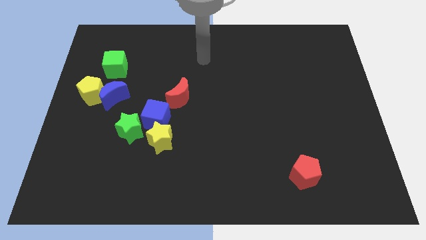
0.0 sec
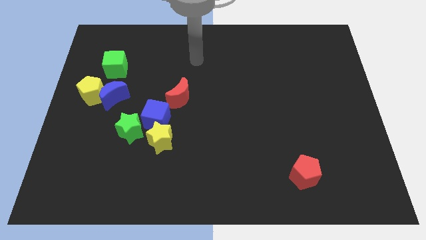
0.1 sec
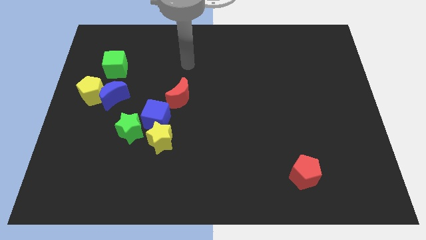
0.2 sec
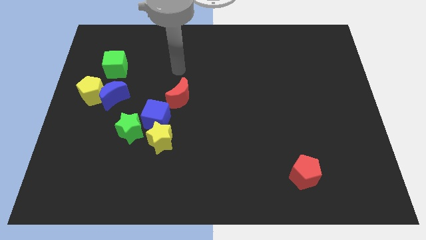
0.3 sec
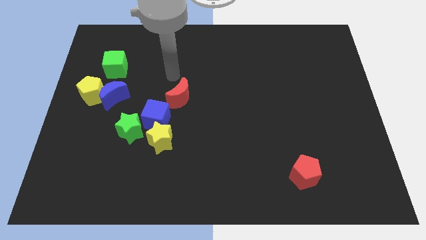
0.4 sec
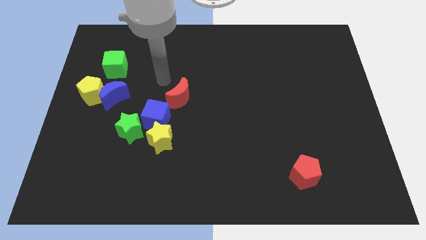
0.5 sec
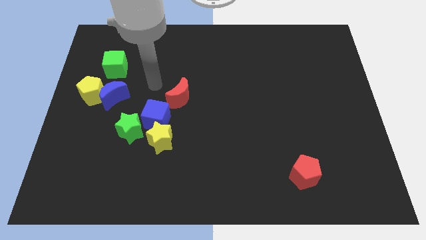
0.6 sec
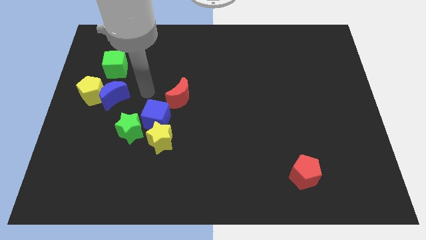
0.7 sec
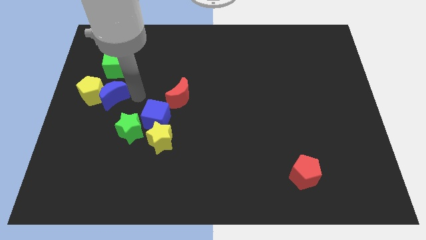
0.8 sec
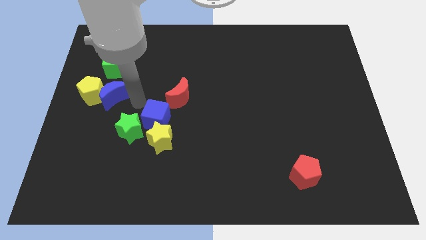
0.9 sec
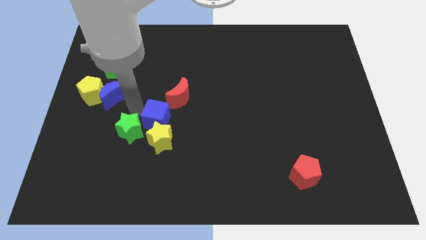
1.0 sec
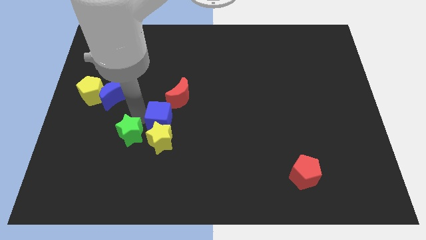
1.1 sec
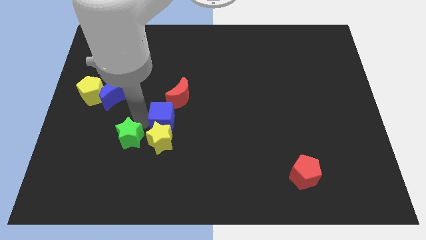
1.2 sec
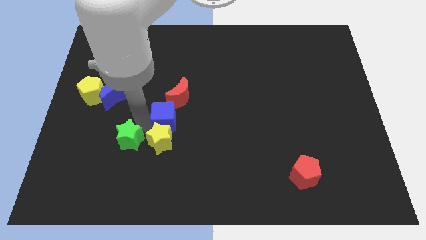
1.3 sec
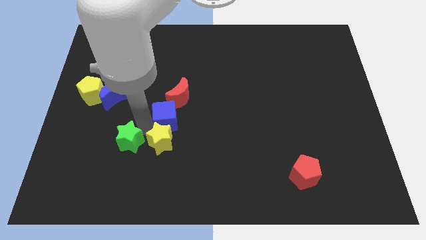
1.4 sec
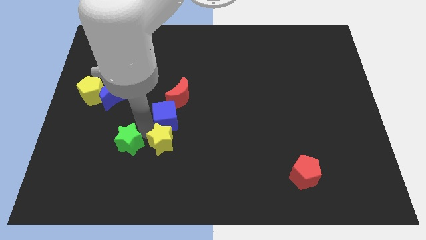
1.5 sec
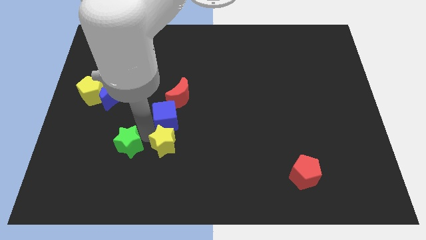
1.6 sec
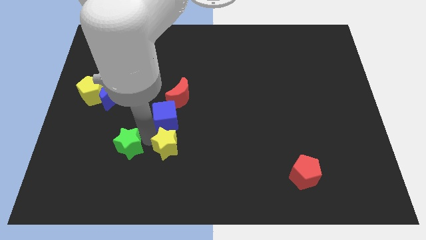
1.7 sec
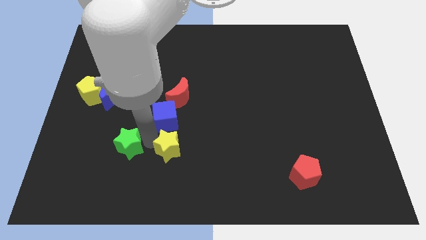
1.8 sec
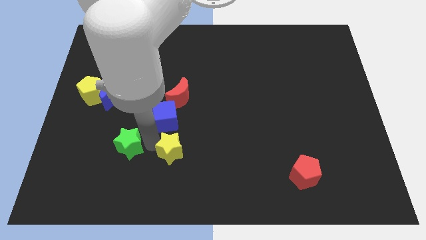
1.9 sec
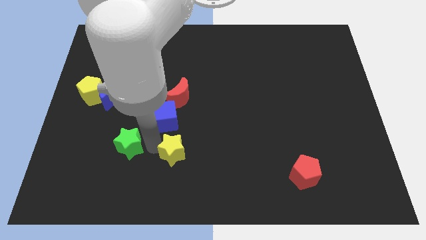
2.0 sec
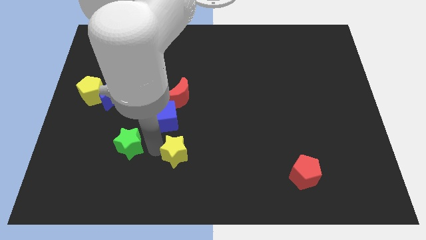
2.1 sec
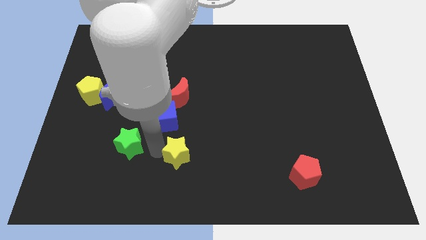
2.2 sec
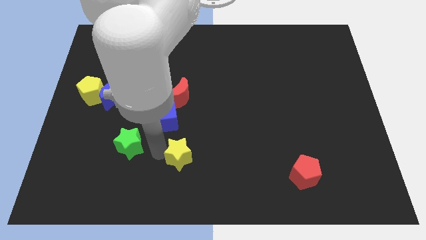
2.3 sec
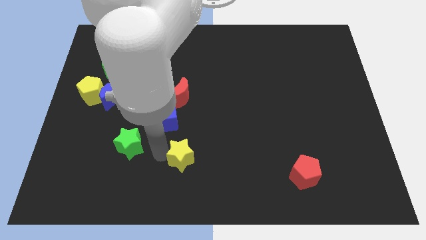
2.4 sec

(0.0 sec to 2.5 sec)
pull the yellow star apart from the blue cube and green star

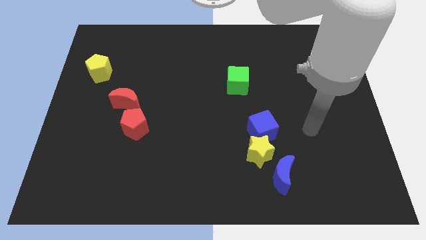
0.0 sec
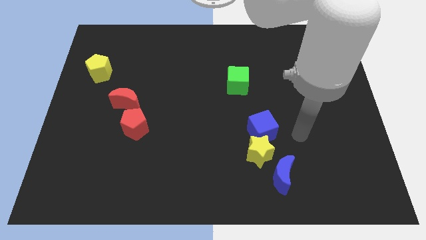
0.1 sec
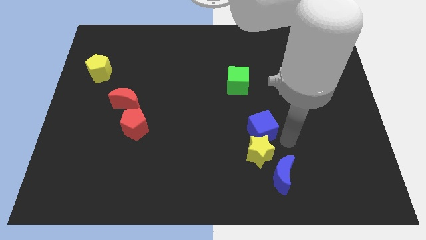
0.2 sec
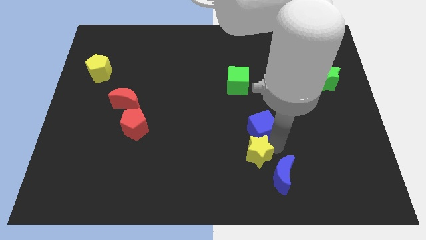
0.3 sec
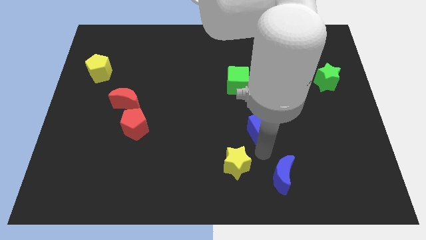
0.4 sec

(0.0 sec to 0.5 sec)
pull the blue cube apart from the yellow star

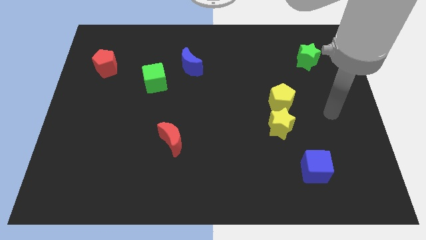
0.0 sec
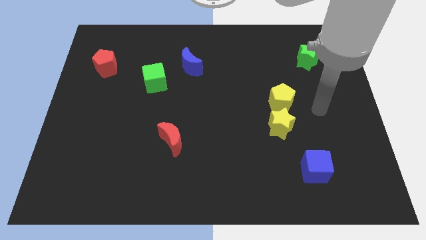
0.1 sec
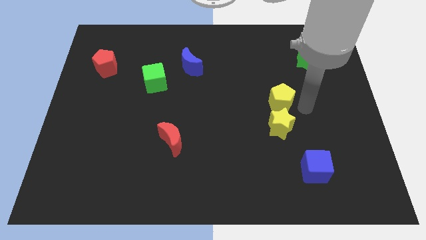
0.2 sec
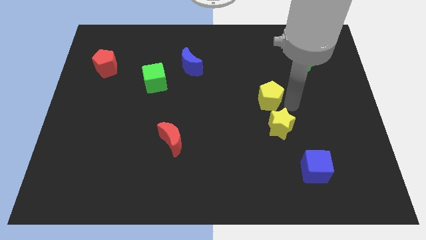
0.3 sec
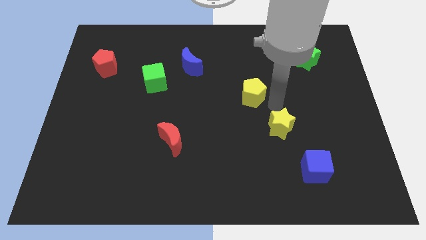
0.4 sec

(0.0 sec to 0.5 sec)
pull the yellow star apart from the yellow pentagon

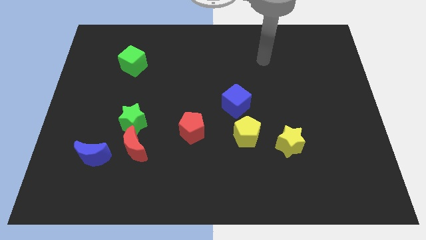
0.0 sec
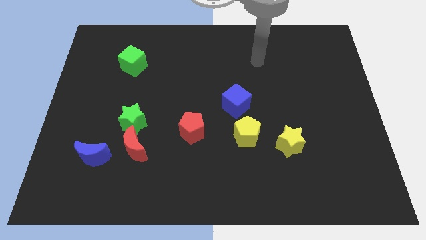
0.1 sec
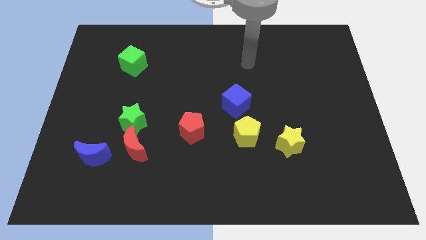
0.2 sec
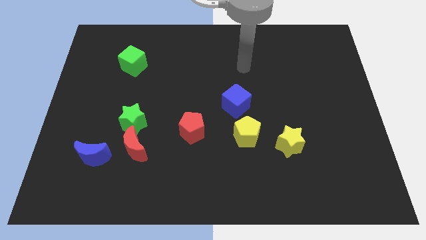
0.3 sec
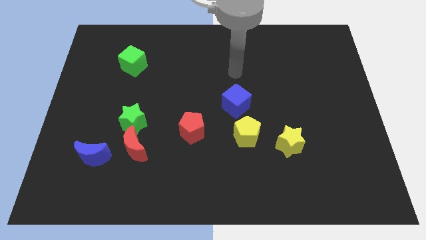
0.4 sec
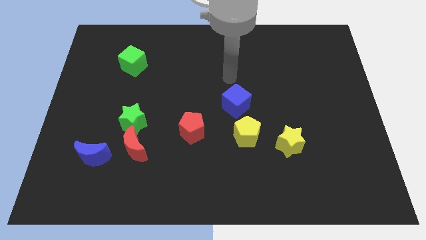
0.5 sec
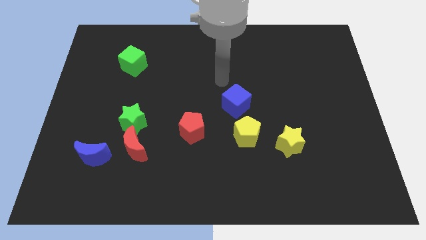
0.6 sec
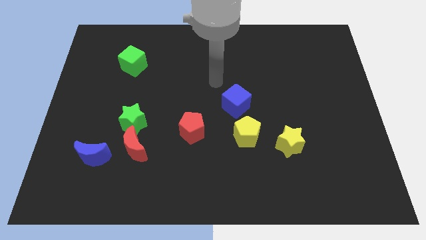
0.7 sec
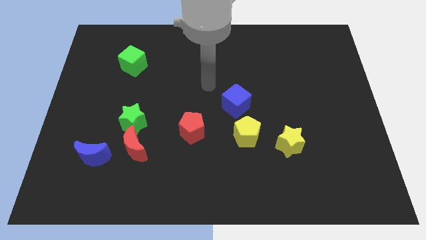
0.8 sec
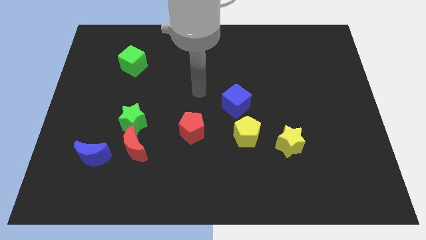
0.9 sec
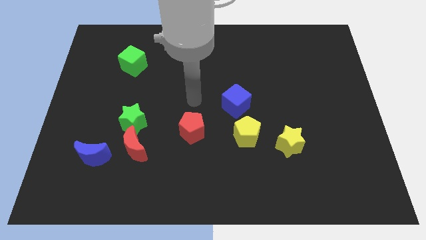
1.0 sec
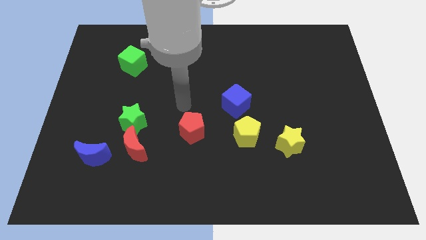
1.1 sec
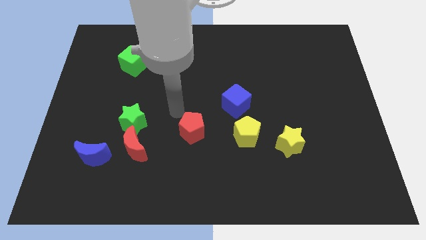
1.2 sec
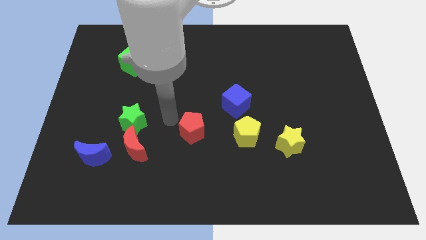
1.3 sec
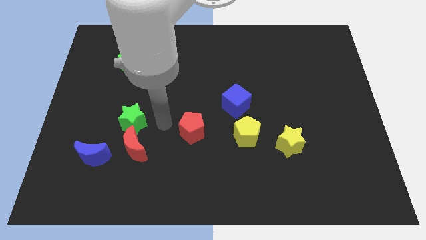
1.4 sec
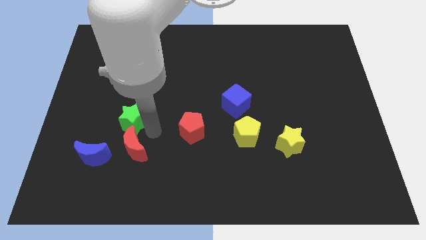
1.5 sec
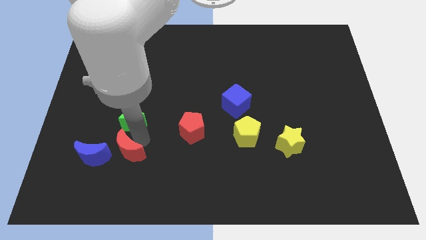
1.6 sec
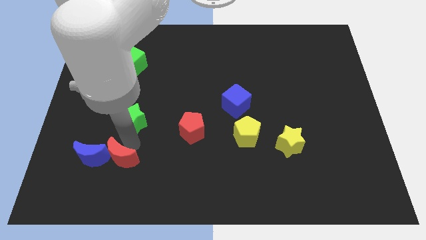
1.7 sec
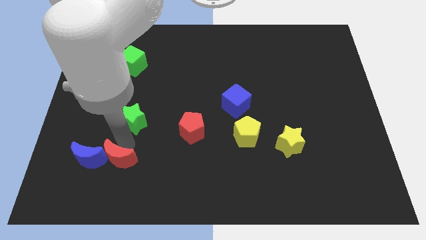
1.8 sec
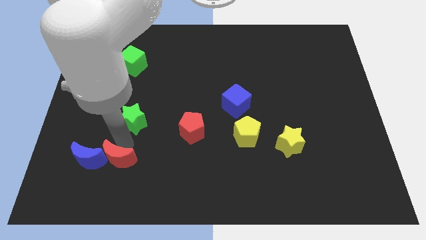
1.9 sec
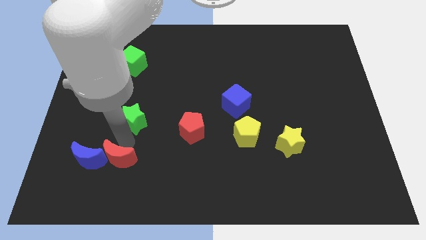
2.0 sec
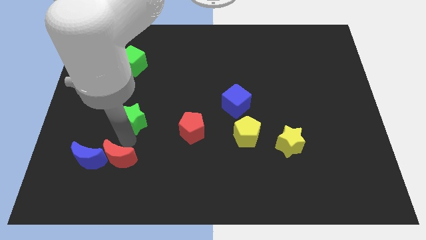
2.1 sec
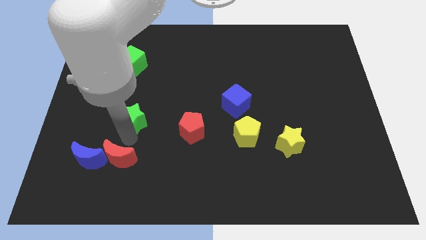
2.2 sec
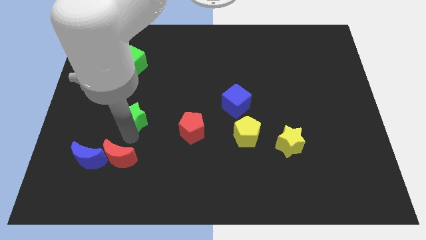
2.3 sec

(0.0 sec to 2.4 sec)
move the green star away from the red moon

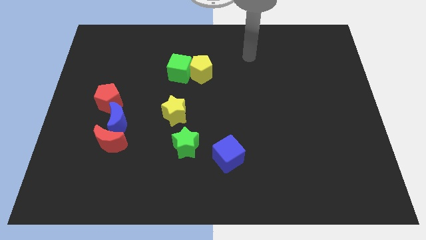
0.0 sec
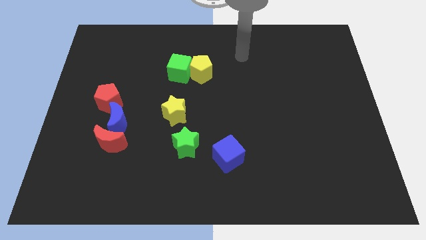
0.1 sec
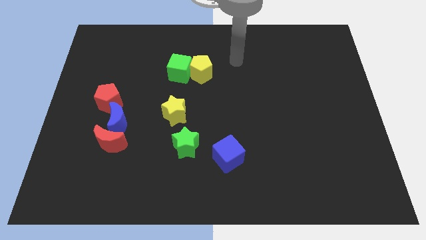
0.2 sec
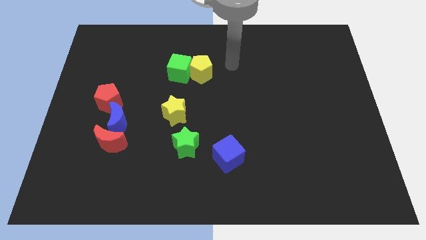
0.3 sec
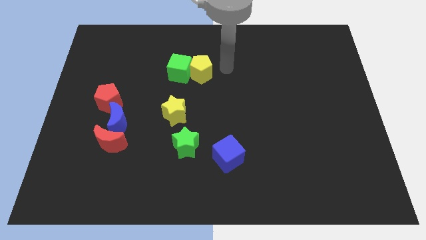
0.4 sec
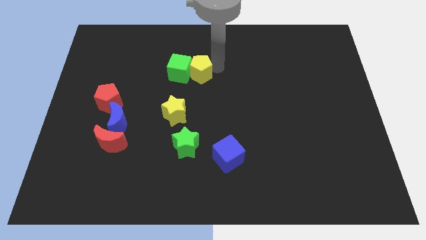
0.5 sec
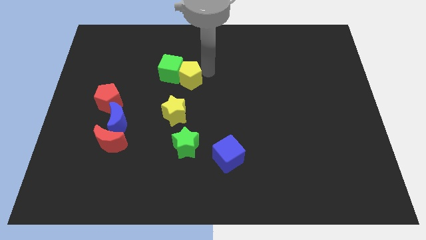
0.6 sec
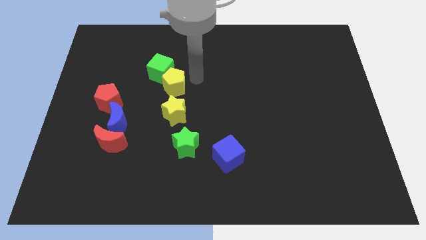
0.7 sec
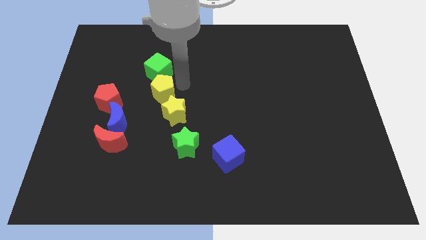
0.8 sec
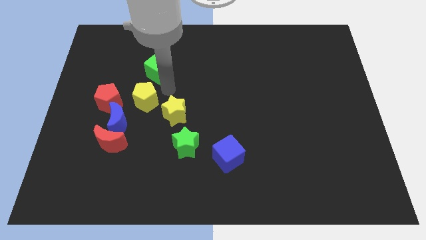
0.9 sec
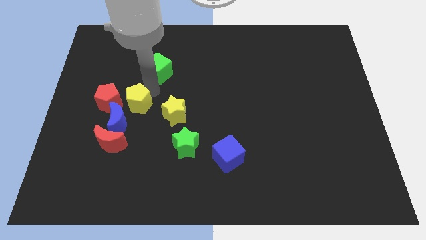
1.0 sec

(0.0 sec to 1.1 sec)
separate the green cube from the yellow pentagon

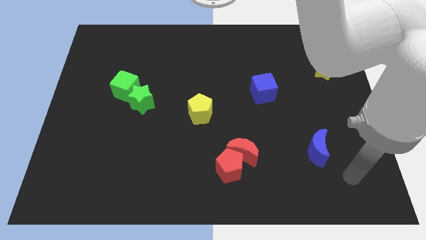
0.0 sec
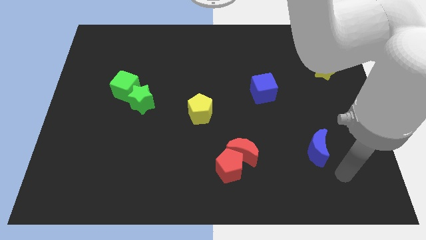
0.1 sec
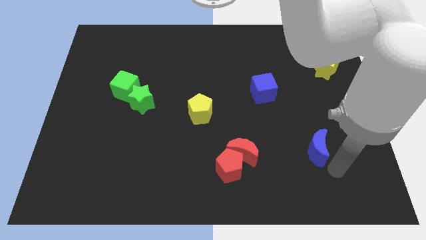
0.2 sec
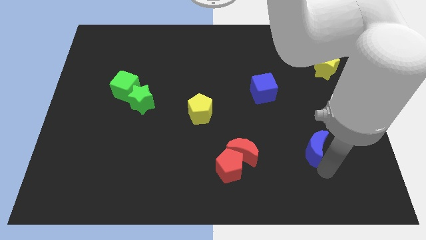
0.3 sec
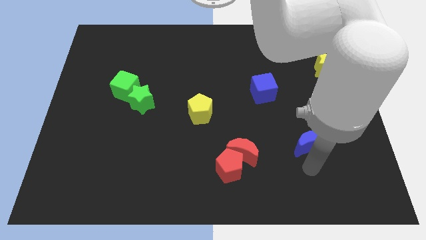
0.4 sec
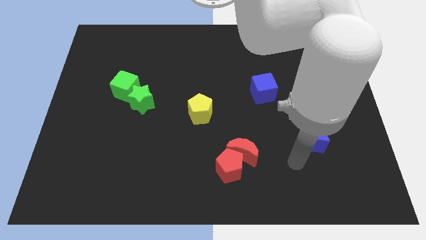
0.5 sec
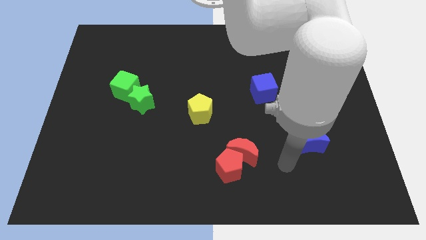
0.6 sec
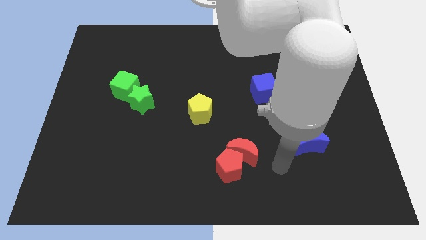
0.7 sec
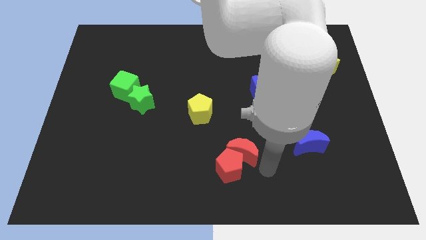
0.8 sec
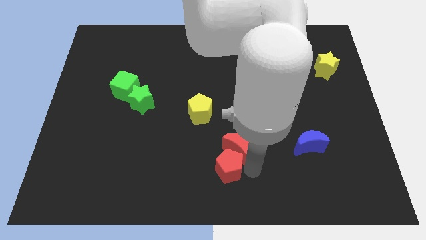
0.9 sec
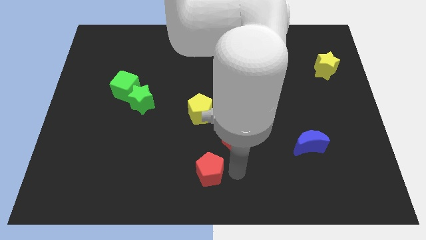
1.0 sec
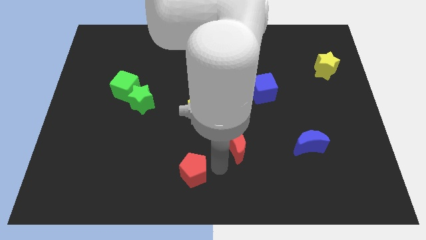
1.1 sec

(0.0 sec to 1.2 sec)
separate the red moon from the red pentagon

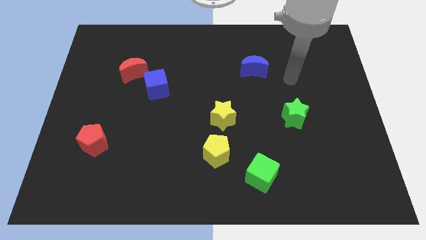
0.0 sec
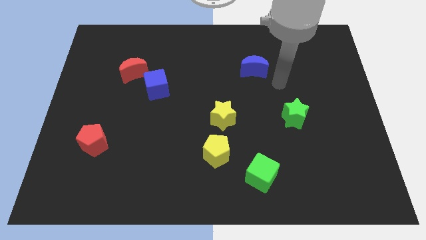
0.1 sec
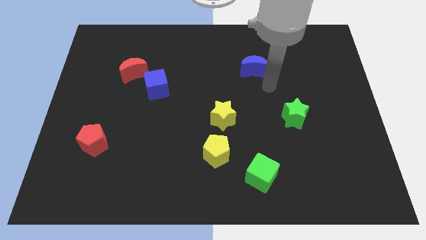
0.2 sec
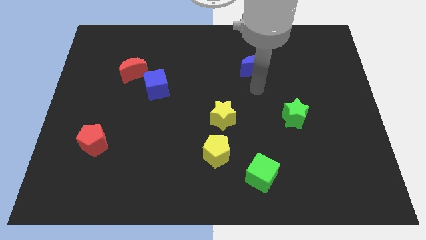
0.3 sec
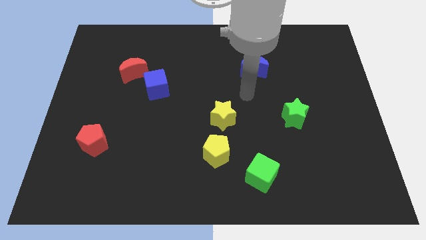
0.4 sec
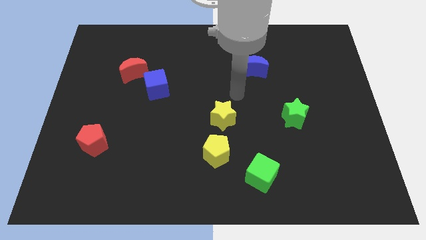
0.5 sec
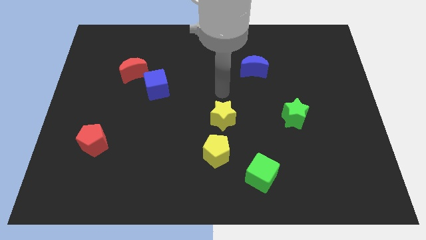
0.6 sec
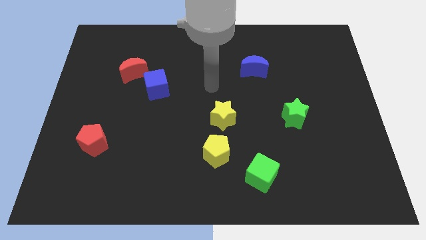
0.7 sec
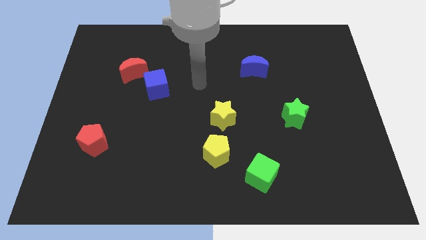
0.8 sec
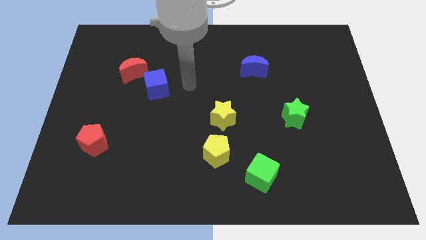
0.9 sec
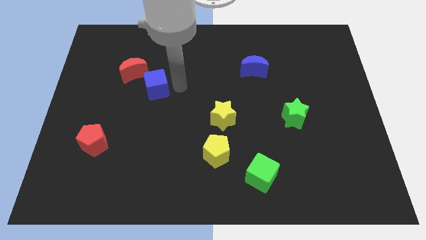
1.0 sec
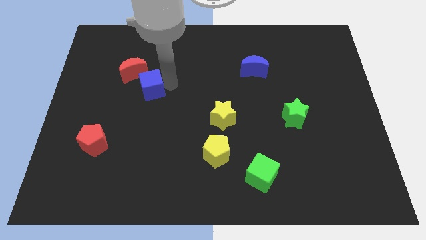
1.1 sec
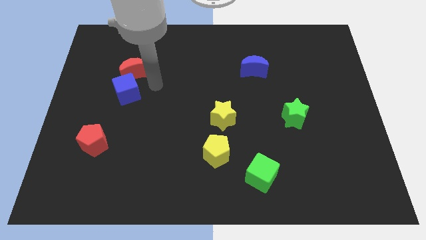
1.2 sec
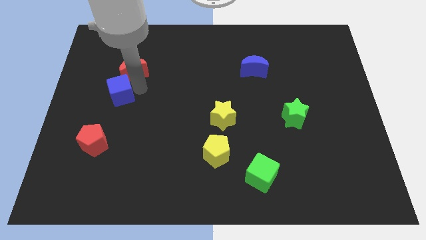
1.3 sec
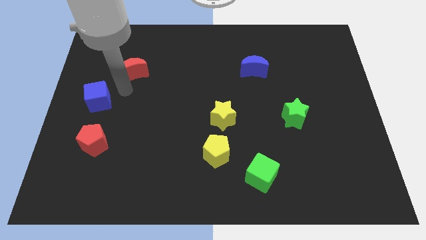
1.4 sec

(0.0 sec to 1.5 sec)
separate the red moon from the blue cube
